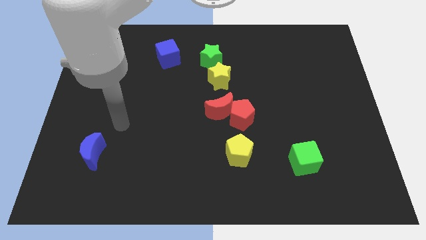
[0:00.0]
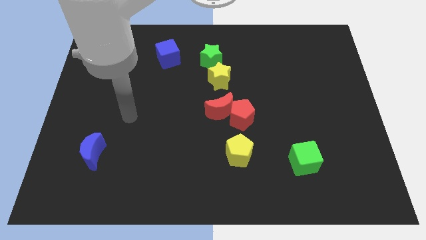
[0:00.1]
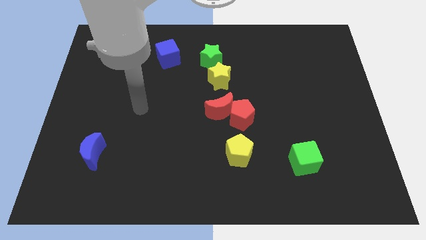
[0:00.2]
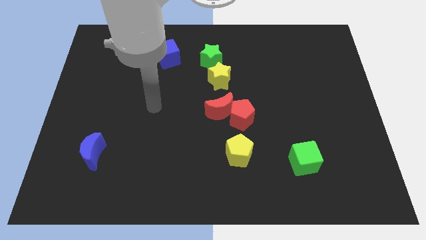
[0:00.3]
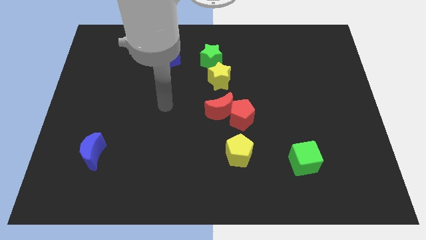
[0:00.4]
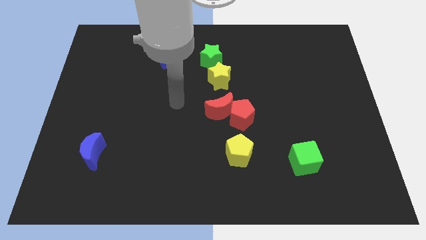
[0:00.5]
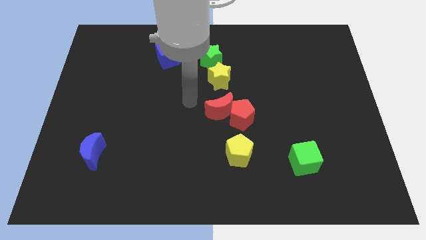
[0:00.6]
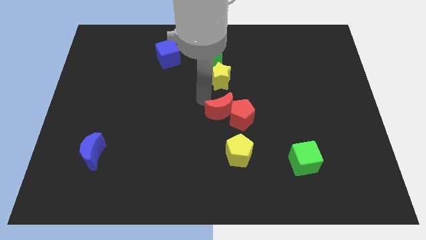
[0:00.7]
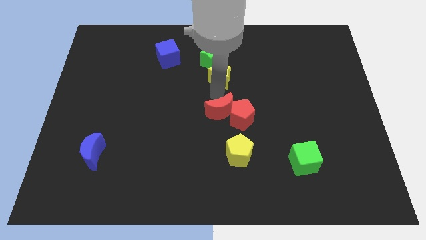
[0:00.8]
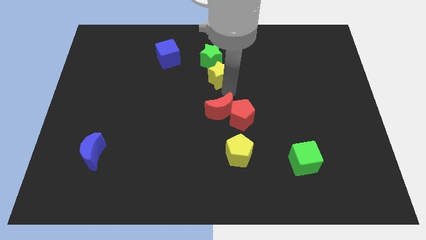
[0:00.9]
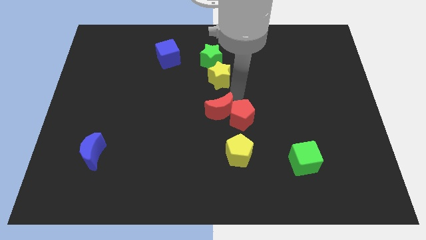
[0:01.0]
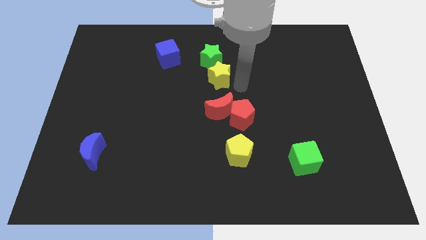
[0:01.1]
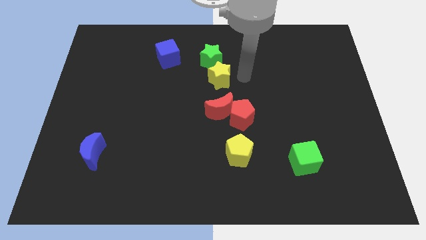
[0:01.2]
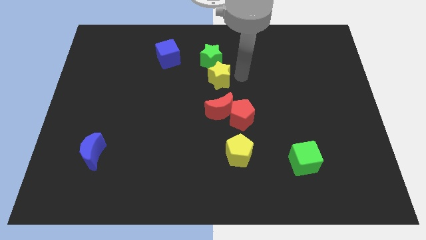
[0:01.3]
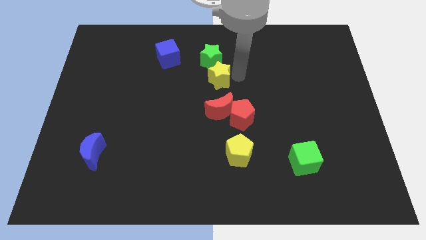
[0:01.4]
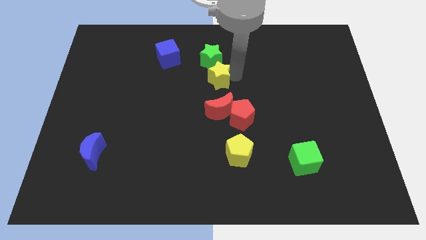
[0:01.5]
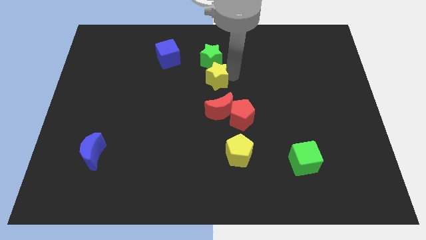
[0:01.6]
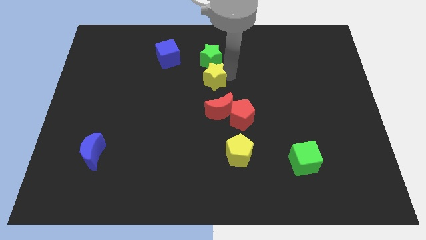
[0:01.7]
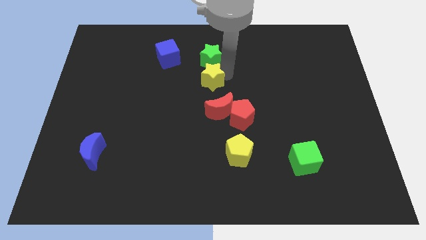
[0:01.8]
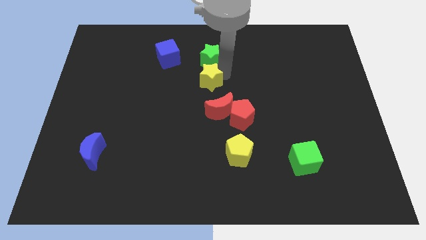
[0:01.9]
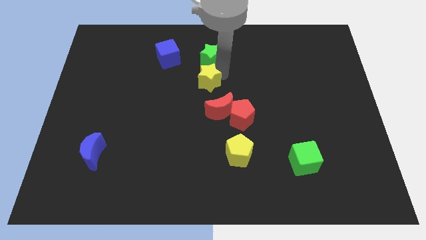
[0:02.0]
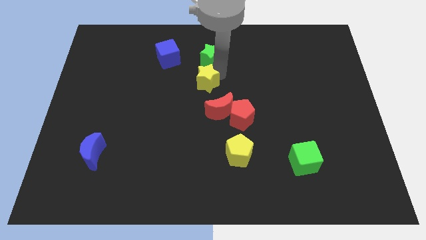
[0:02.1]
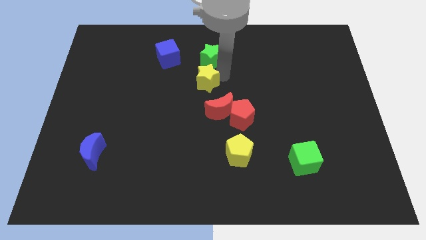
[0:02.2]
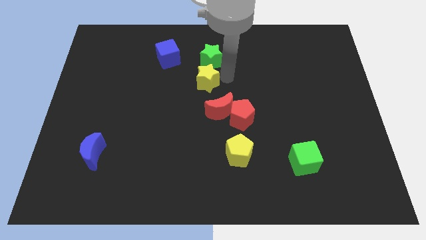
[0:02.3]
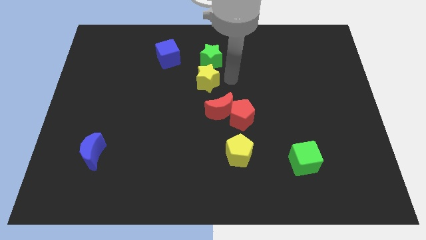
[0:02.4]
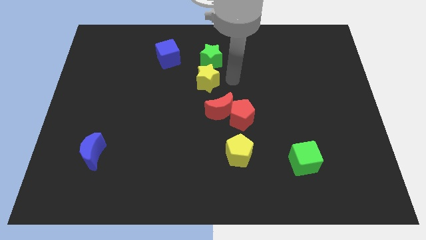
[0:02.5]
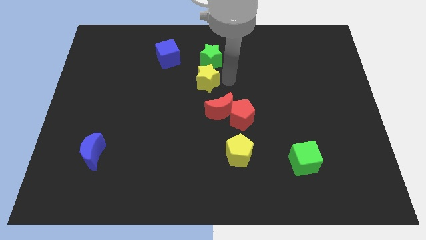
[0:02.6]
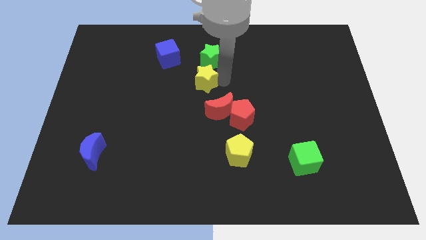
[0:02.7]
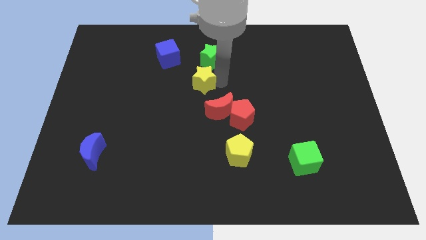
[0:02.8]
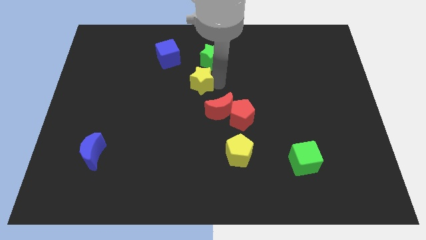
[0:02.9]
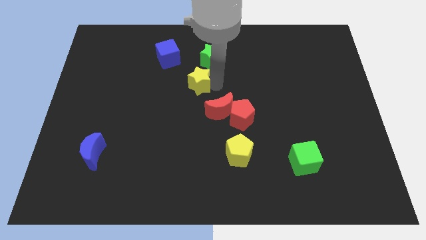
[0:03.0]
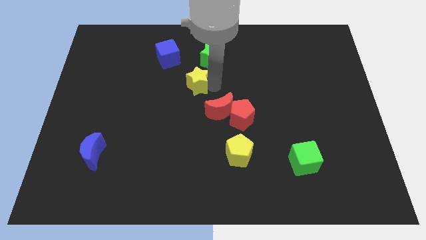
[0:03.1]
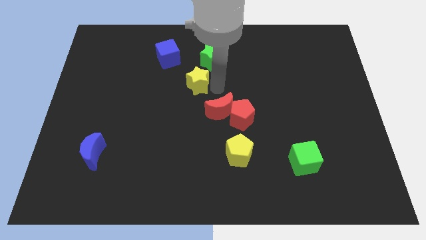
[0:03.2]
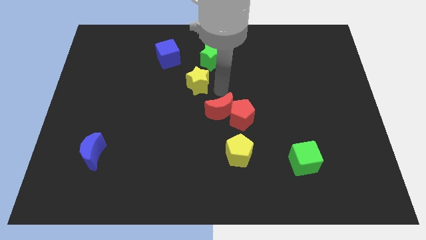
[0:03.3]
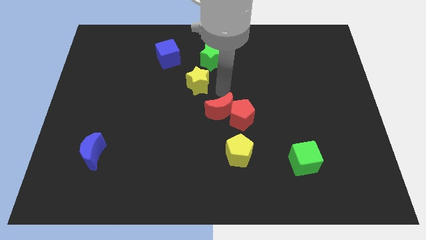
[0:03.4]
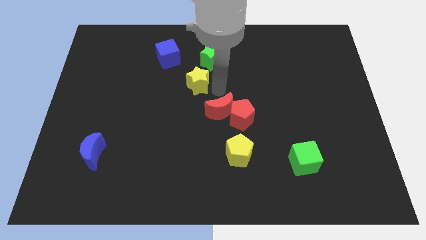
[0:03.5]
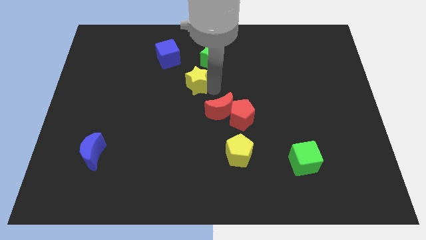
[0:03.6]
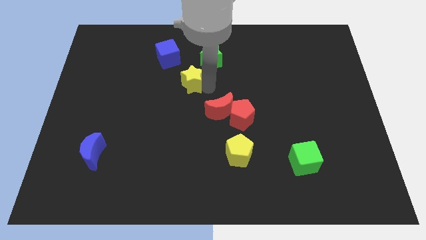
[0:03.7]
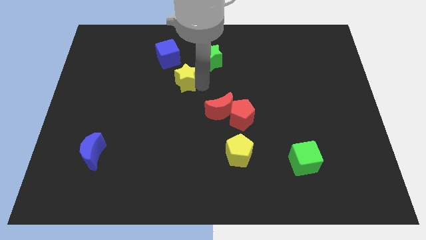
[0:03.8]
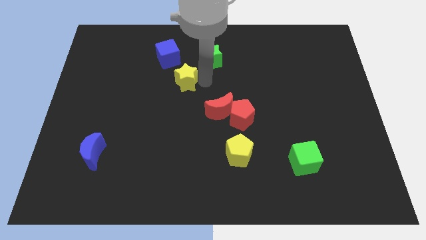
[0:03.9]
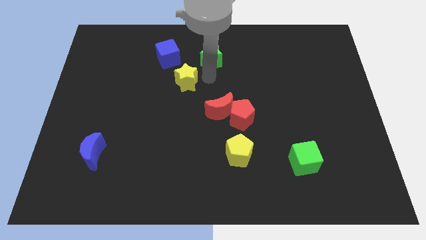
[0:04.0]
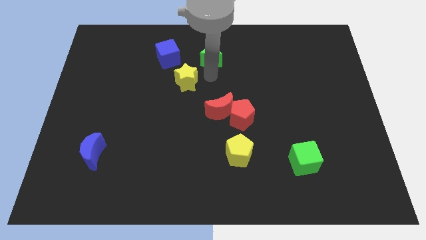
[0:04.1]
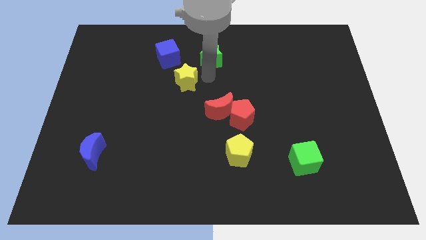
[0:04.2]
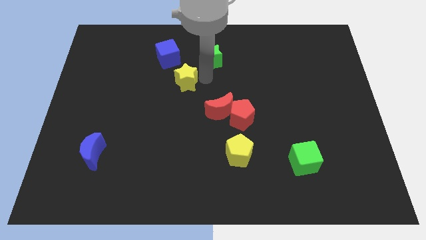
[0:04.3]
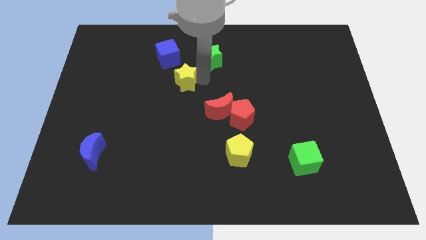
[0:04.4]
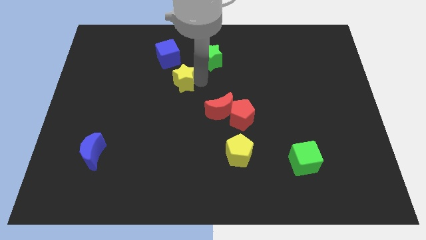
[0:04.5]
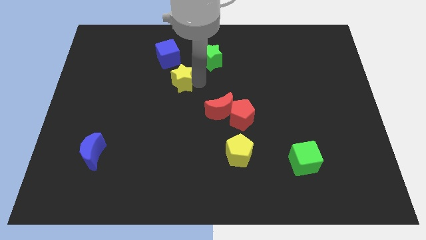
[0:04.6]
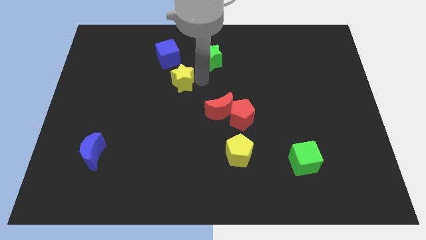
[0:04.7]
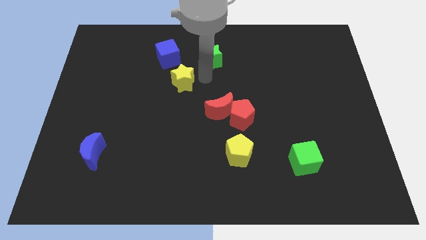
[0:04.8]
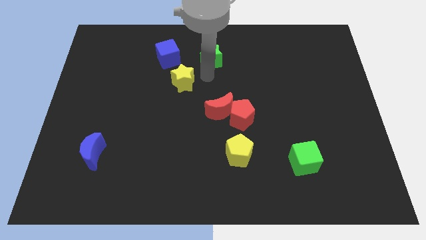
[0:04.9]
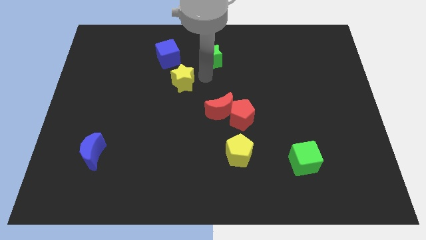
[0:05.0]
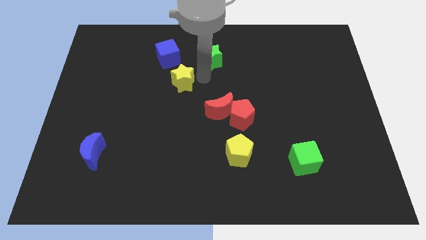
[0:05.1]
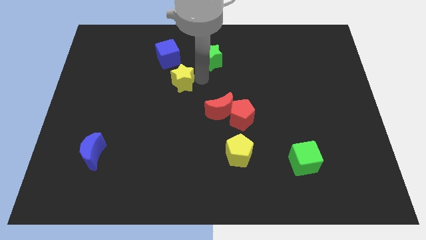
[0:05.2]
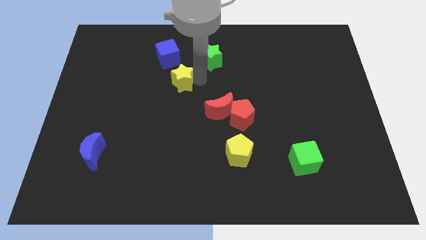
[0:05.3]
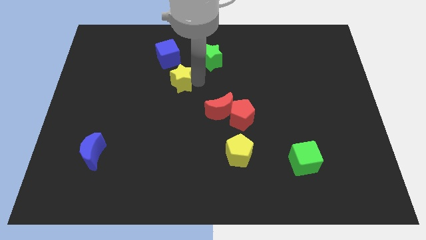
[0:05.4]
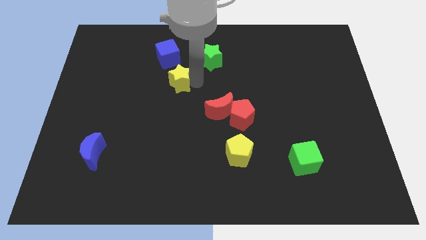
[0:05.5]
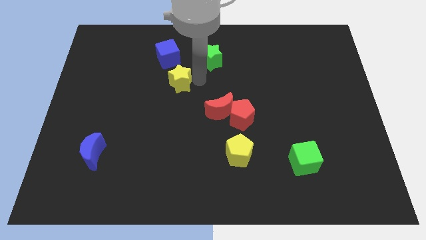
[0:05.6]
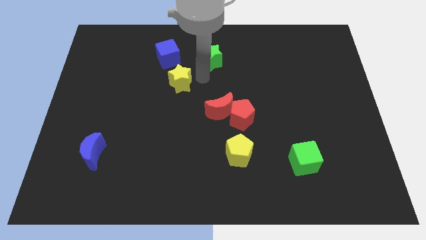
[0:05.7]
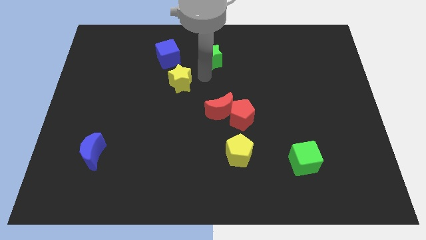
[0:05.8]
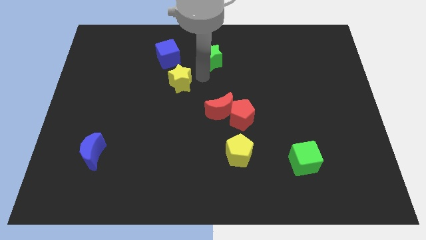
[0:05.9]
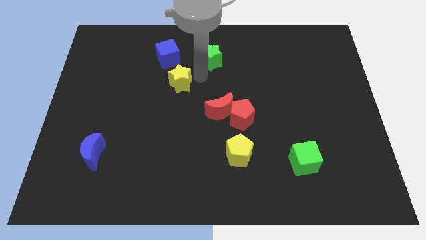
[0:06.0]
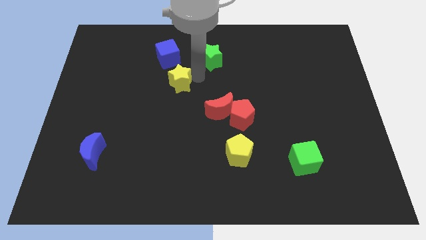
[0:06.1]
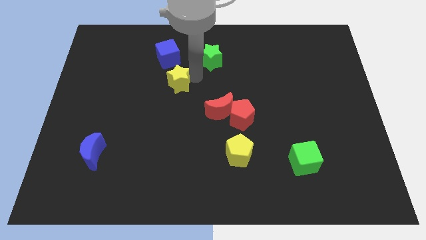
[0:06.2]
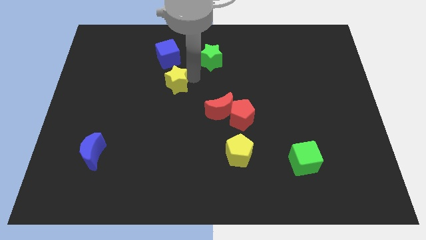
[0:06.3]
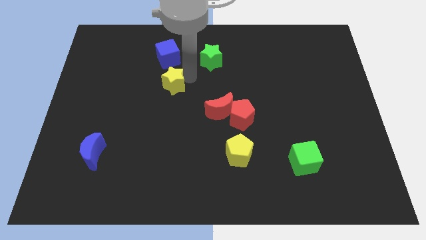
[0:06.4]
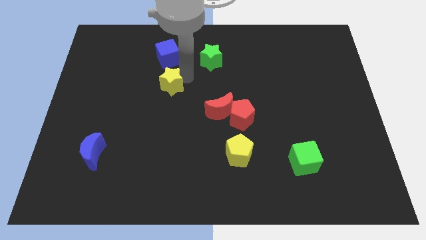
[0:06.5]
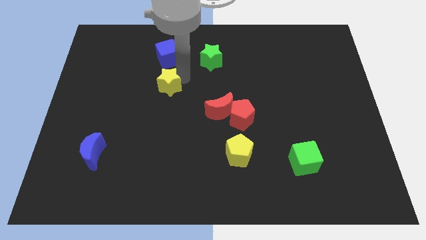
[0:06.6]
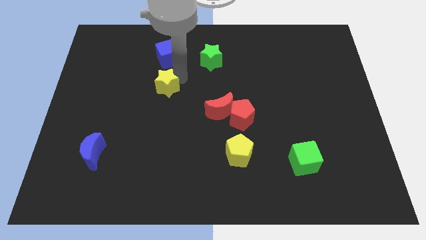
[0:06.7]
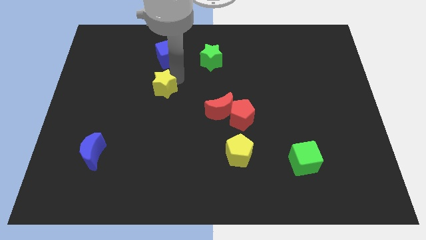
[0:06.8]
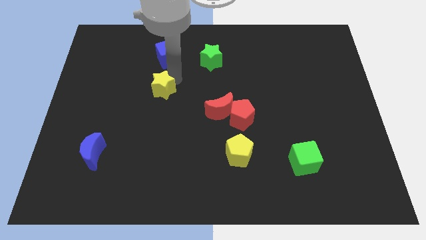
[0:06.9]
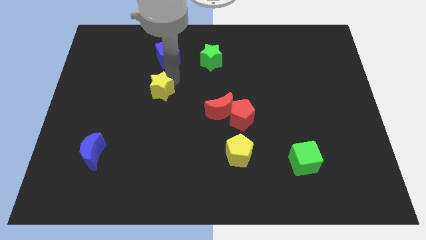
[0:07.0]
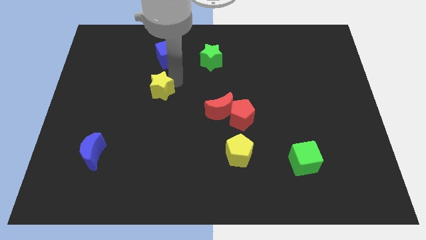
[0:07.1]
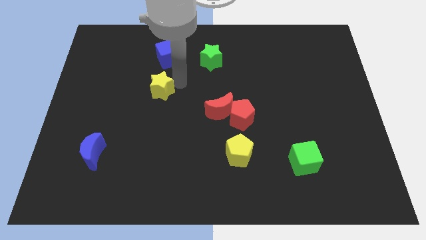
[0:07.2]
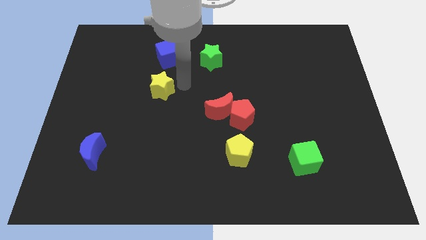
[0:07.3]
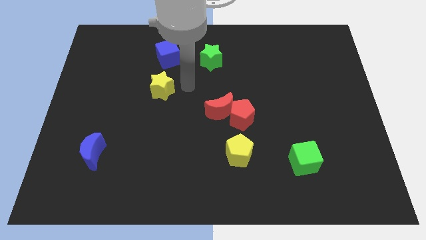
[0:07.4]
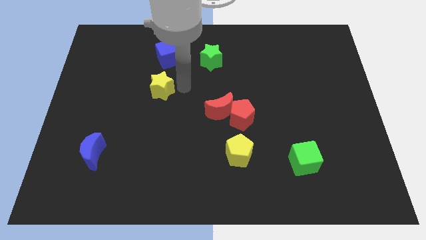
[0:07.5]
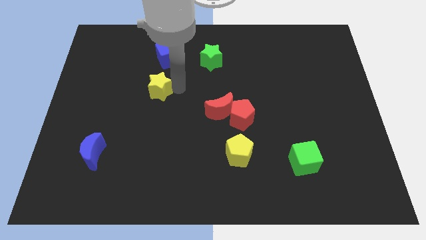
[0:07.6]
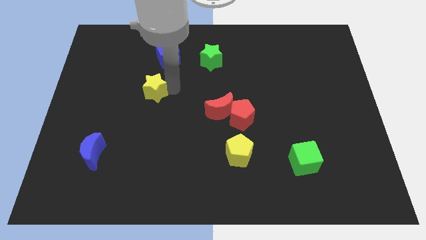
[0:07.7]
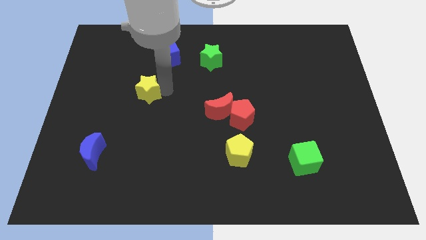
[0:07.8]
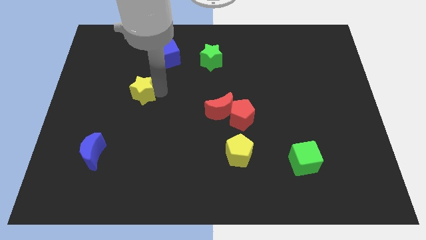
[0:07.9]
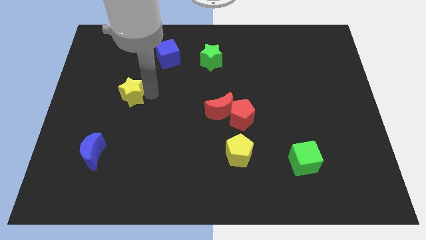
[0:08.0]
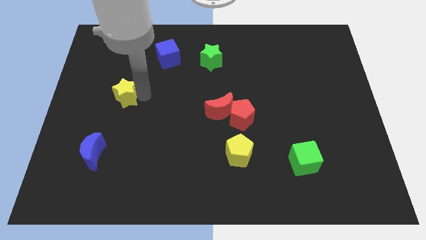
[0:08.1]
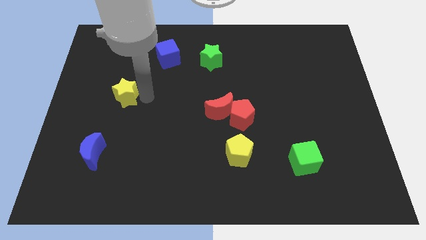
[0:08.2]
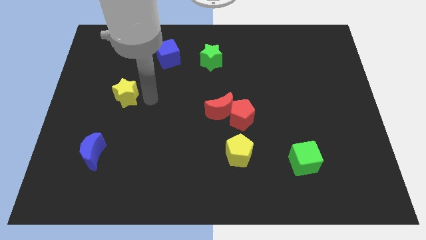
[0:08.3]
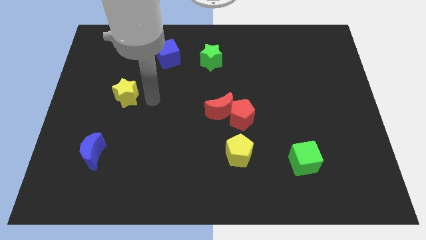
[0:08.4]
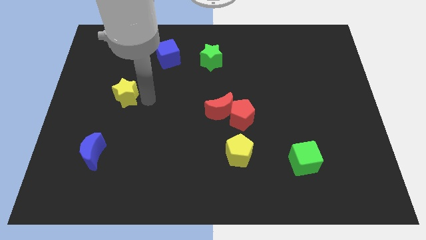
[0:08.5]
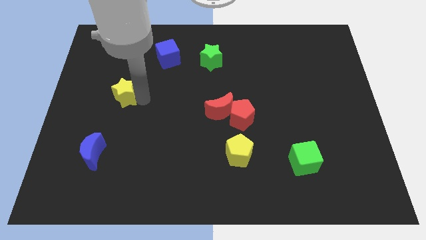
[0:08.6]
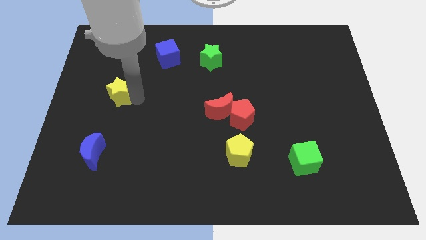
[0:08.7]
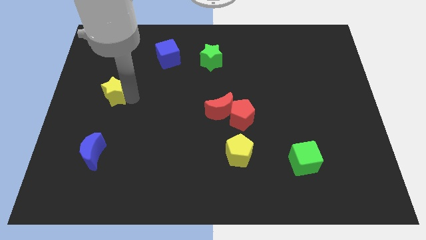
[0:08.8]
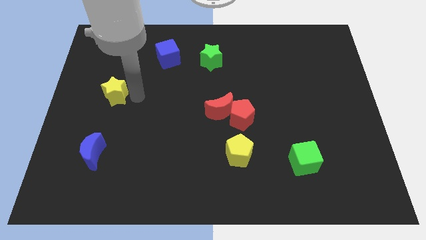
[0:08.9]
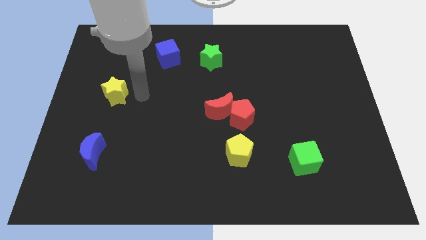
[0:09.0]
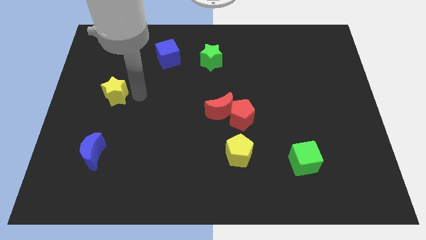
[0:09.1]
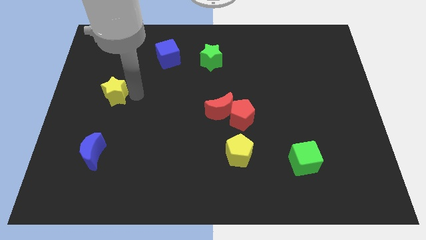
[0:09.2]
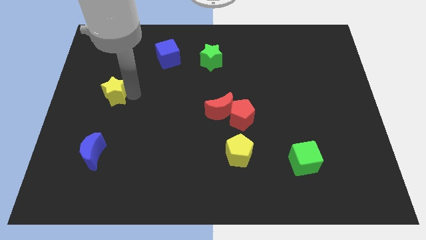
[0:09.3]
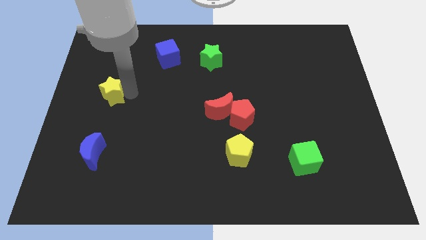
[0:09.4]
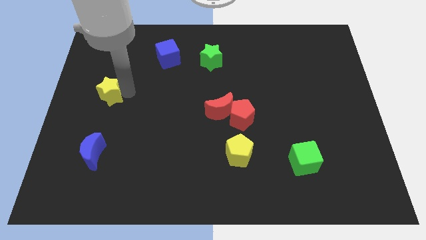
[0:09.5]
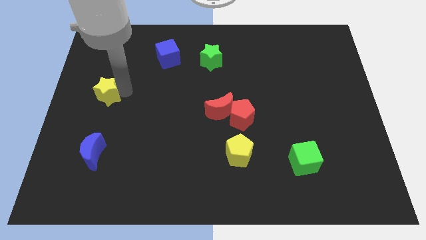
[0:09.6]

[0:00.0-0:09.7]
put the yellow star to the left side
